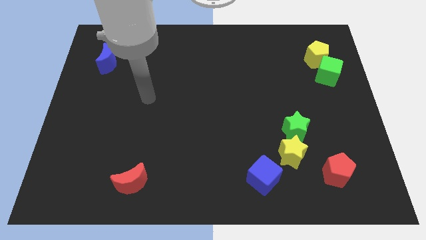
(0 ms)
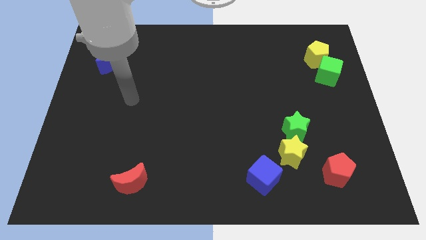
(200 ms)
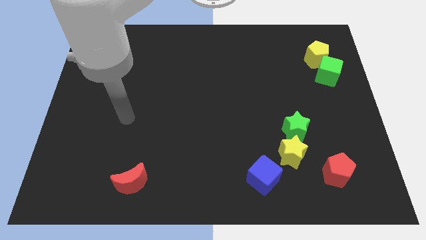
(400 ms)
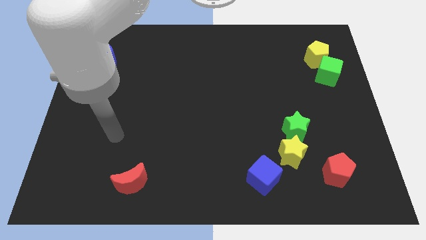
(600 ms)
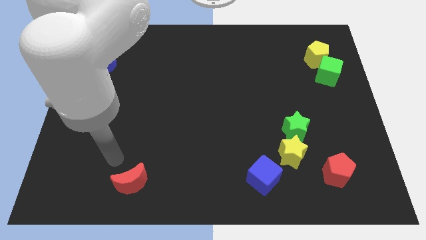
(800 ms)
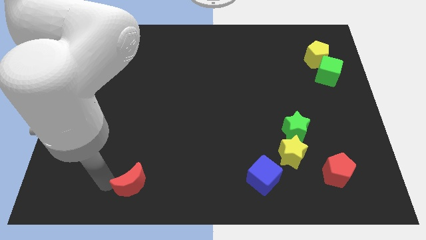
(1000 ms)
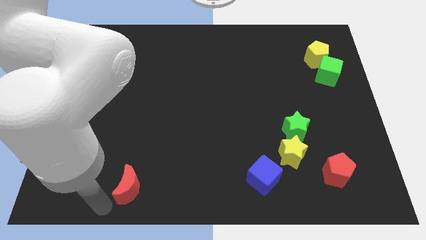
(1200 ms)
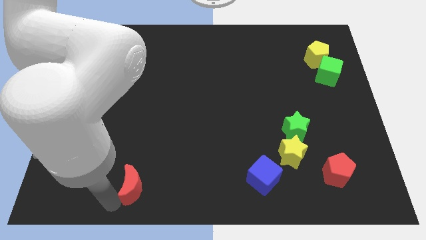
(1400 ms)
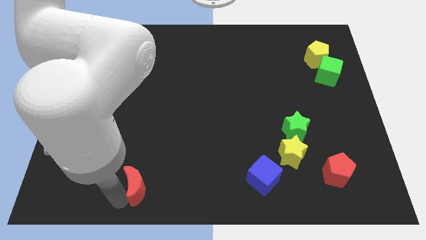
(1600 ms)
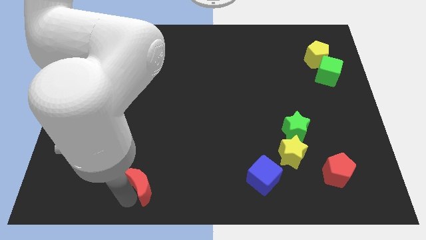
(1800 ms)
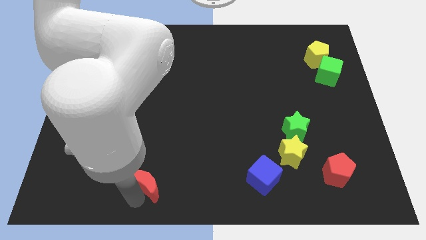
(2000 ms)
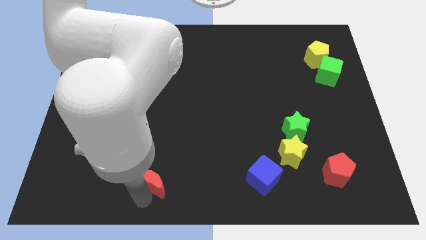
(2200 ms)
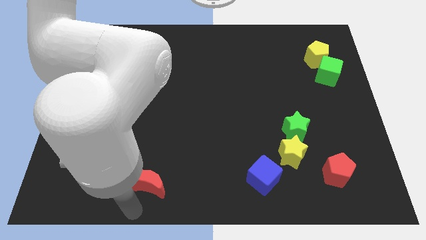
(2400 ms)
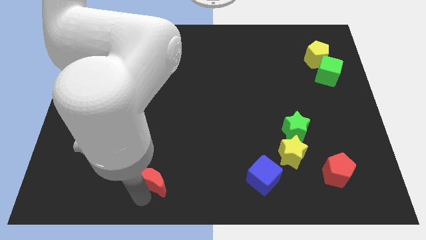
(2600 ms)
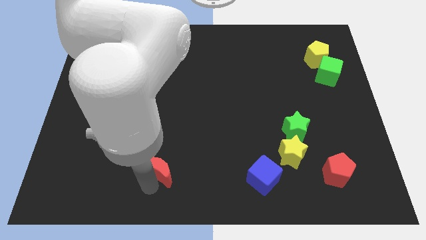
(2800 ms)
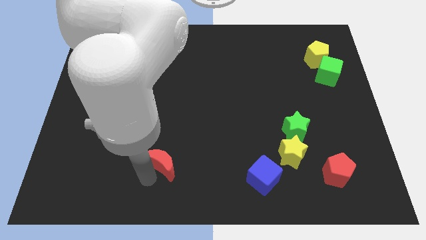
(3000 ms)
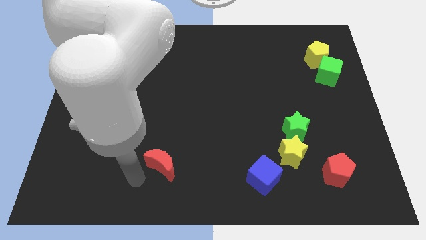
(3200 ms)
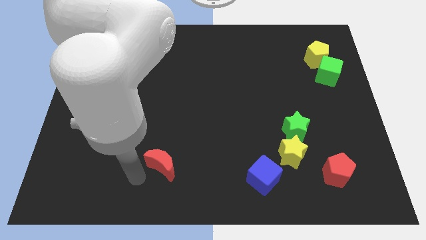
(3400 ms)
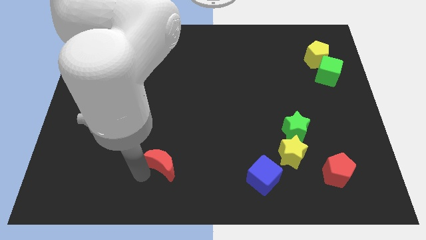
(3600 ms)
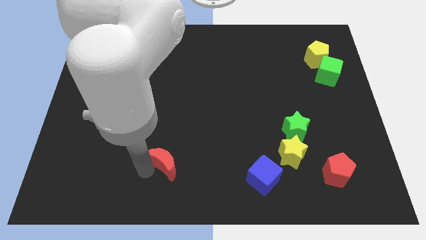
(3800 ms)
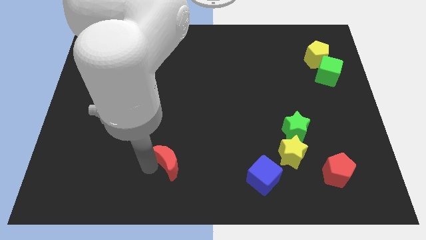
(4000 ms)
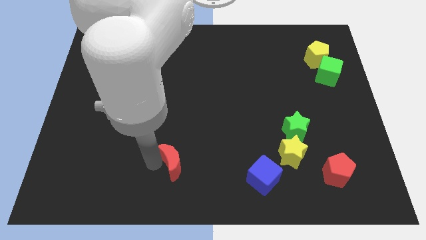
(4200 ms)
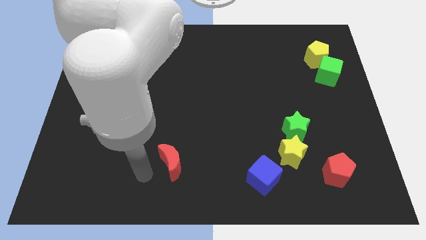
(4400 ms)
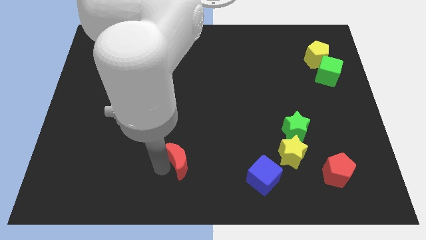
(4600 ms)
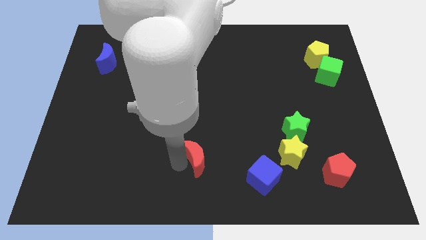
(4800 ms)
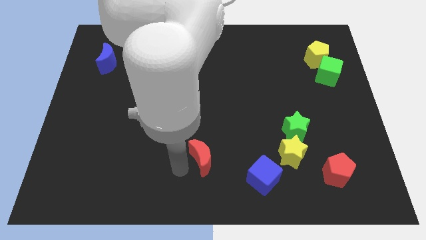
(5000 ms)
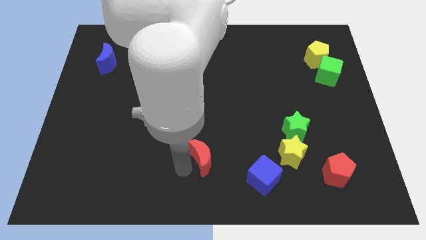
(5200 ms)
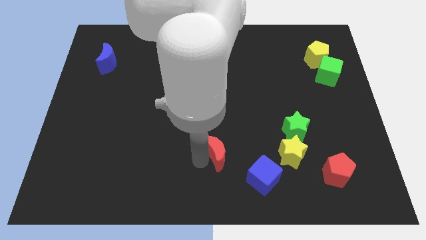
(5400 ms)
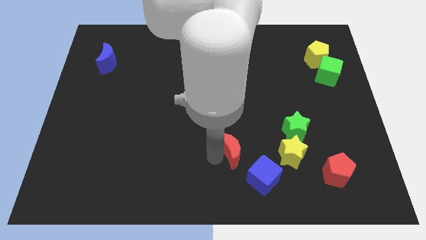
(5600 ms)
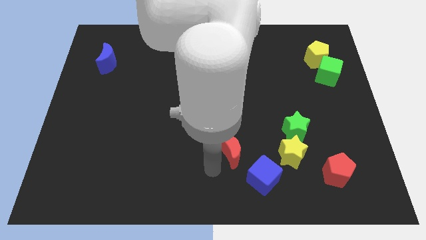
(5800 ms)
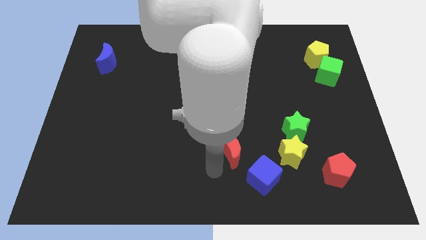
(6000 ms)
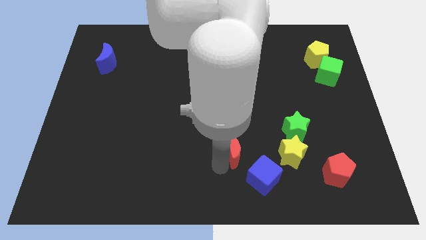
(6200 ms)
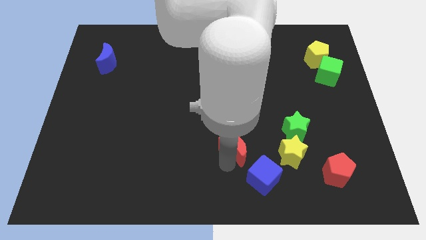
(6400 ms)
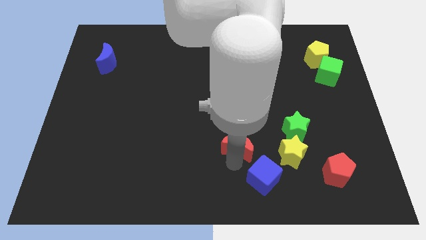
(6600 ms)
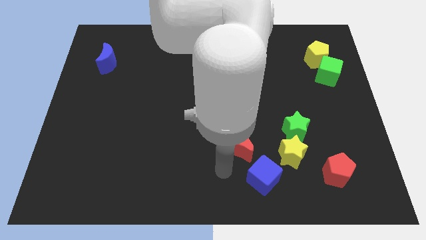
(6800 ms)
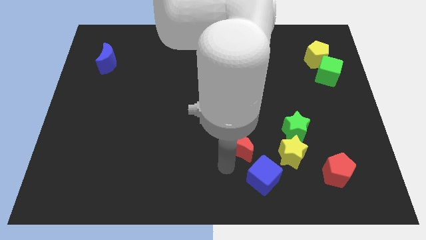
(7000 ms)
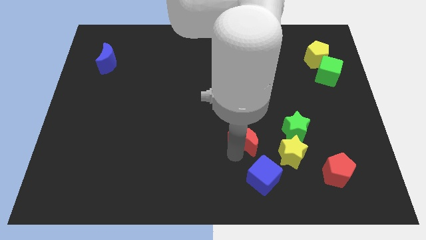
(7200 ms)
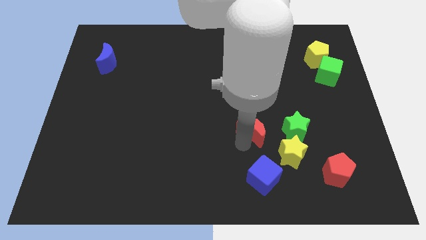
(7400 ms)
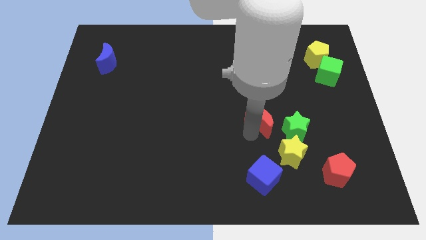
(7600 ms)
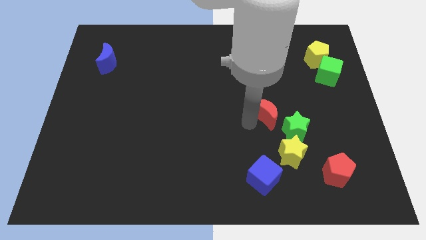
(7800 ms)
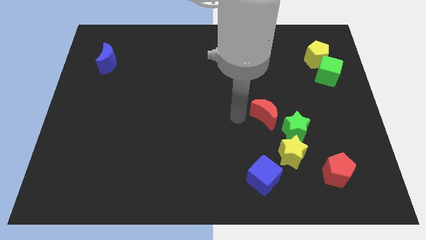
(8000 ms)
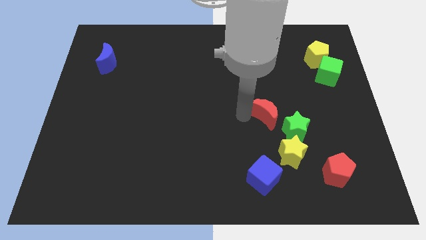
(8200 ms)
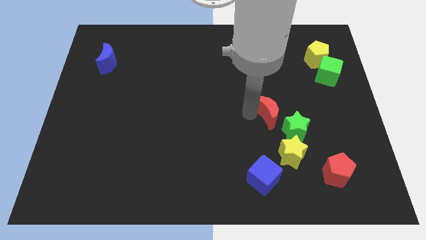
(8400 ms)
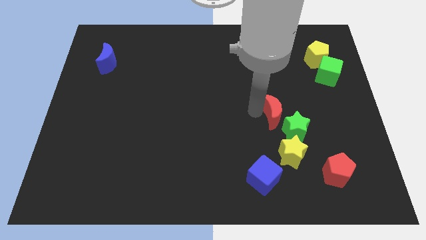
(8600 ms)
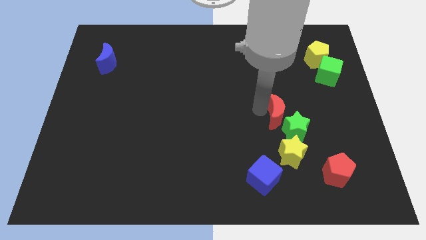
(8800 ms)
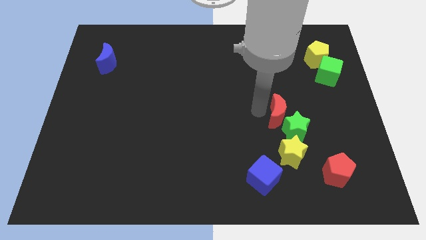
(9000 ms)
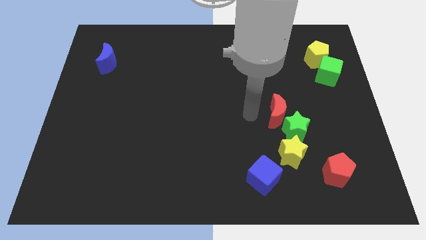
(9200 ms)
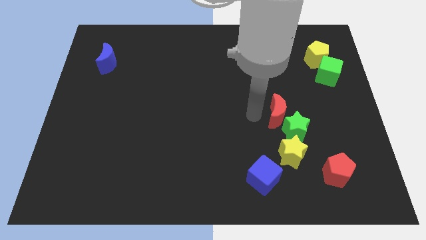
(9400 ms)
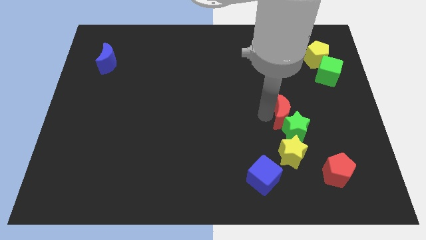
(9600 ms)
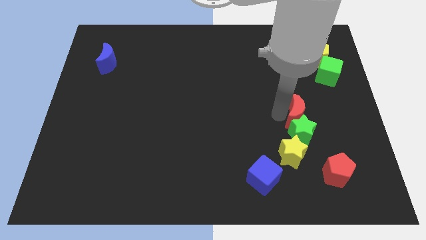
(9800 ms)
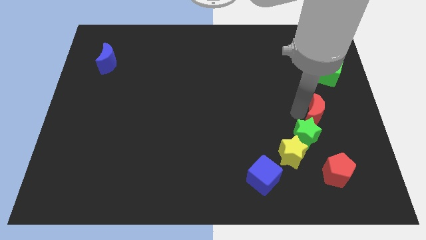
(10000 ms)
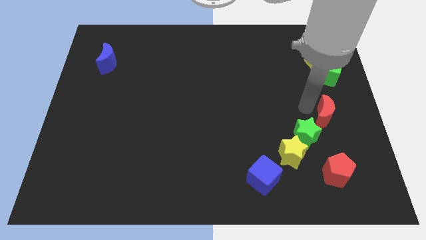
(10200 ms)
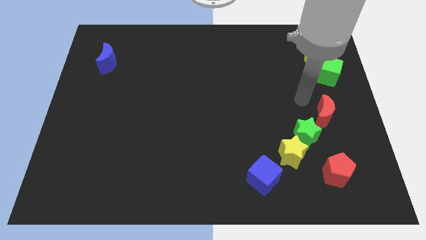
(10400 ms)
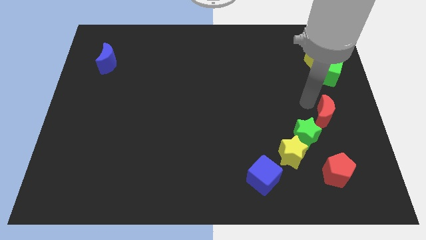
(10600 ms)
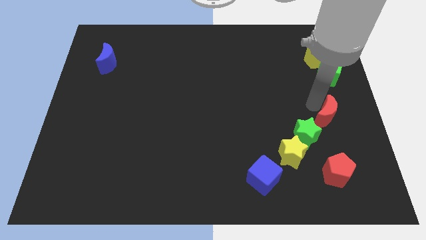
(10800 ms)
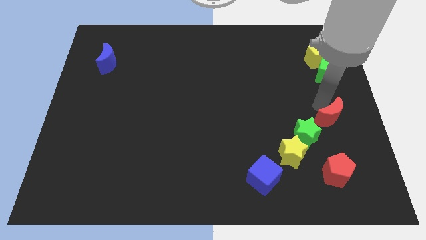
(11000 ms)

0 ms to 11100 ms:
put the red moon to the right side of the green star

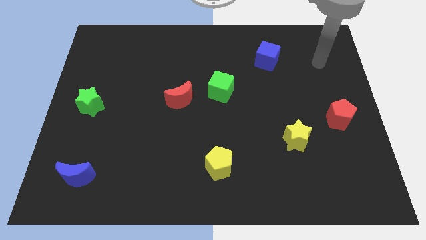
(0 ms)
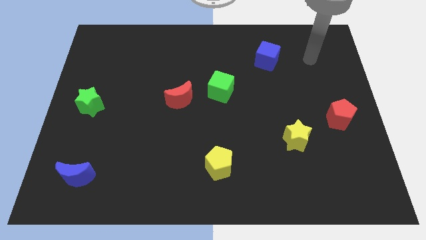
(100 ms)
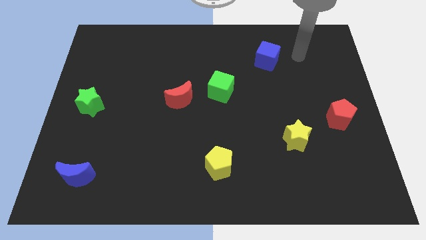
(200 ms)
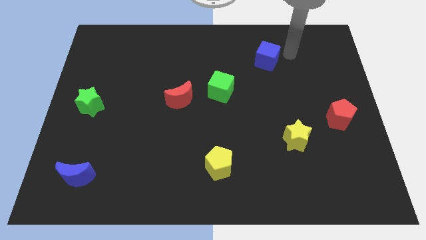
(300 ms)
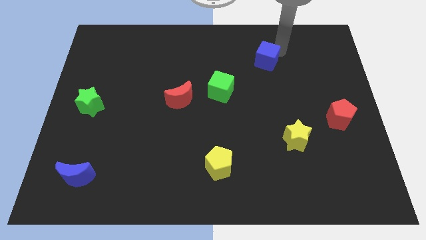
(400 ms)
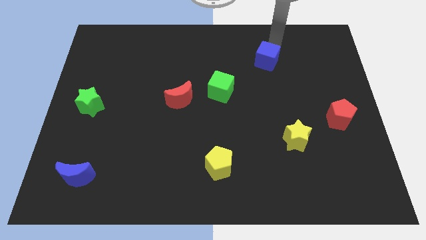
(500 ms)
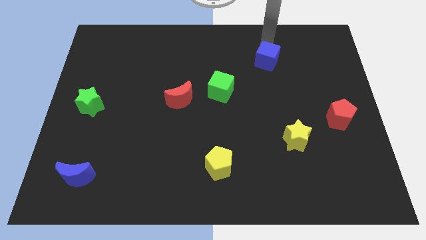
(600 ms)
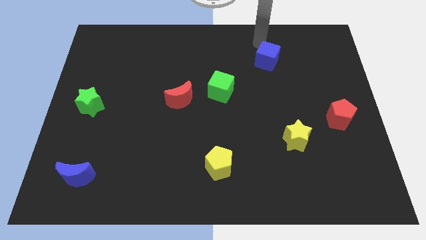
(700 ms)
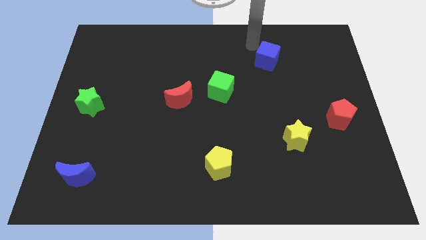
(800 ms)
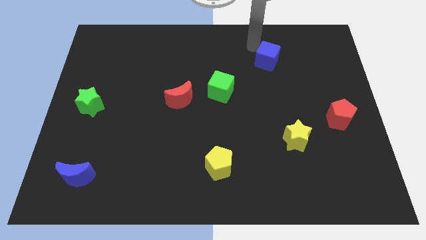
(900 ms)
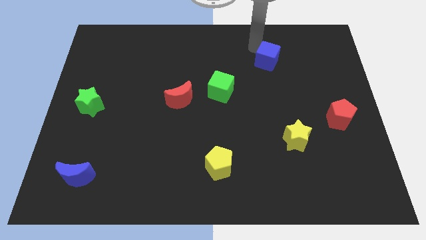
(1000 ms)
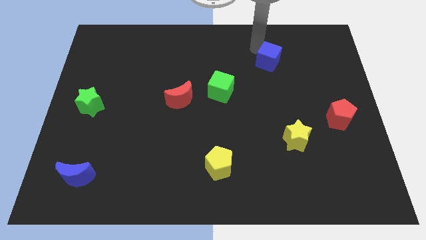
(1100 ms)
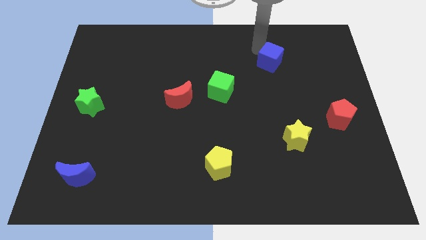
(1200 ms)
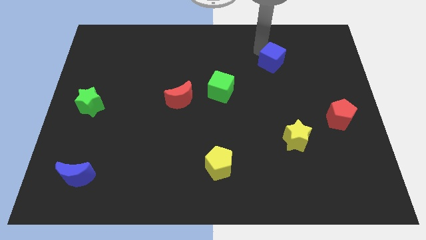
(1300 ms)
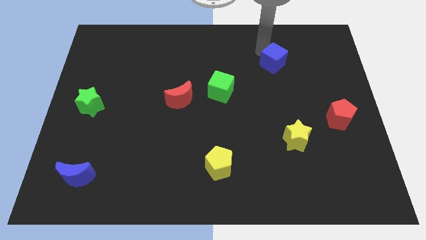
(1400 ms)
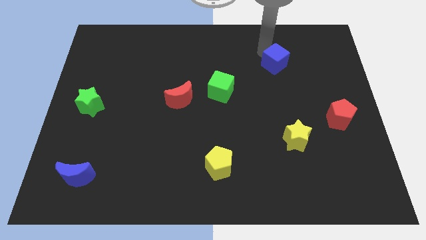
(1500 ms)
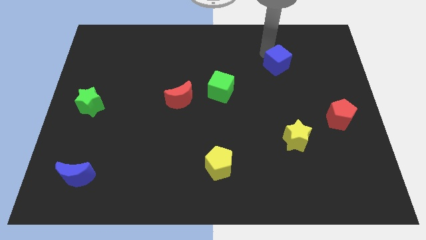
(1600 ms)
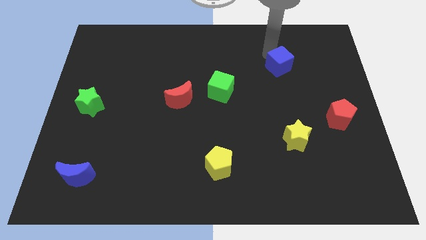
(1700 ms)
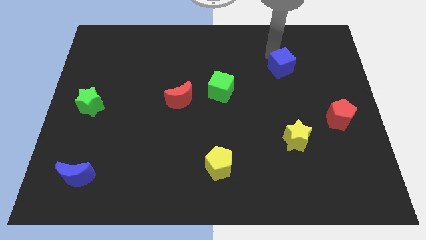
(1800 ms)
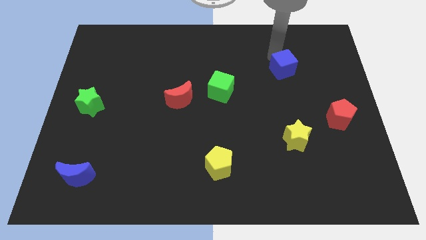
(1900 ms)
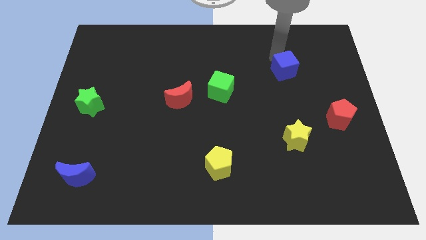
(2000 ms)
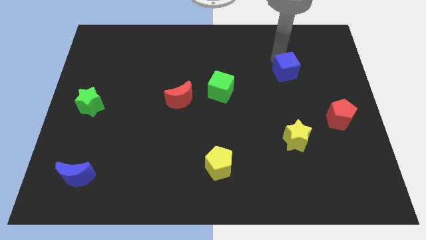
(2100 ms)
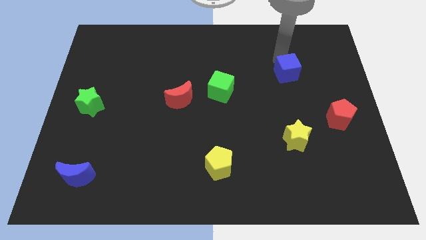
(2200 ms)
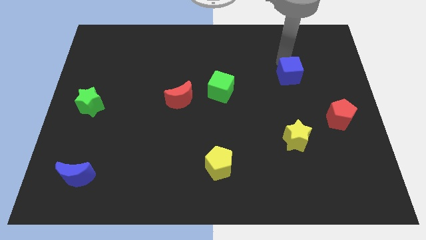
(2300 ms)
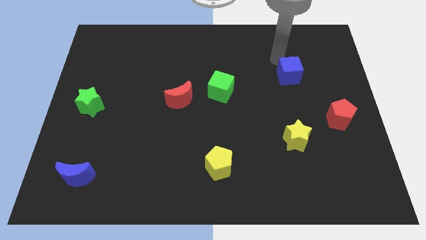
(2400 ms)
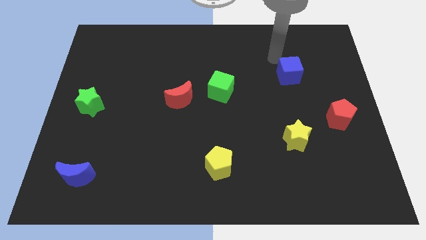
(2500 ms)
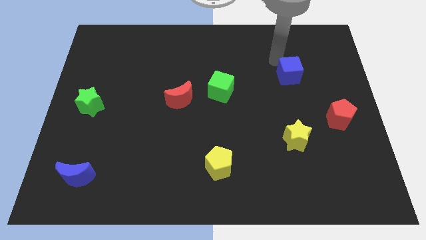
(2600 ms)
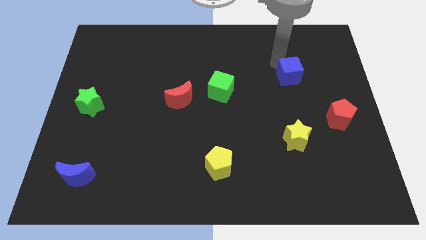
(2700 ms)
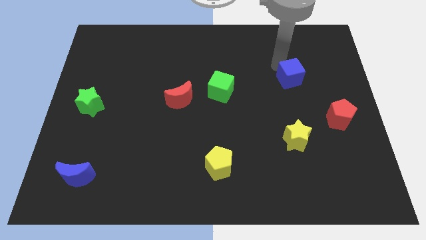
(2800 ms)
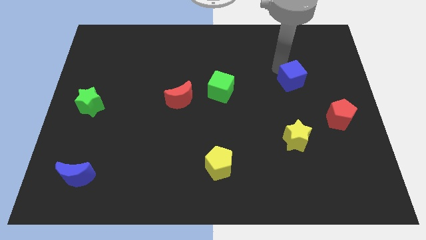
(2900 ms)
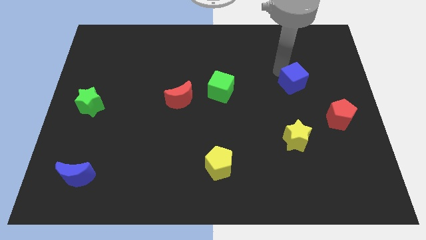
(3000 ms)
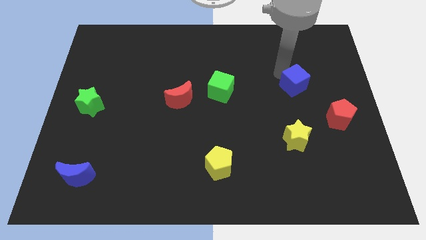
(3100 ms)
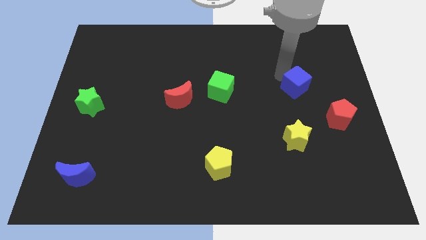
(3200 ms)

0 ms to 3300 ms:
move the blue cube to the top left side of the red pentagon
